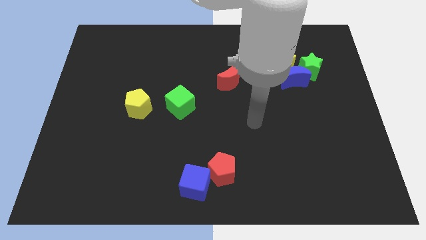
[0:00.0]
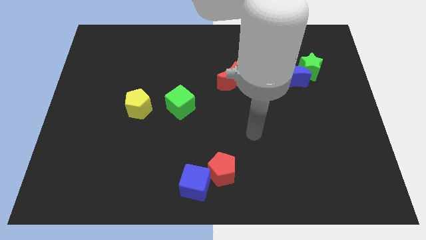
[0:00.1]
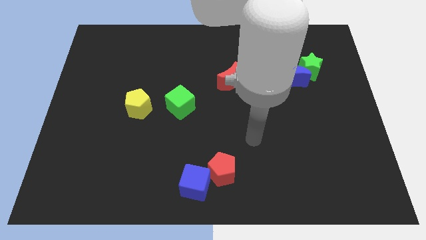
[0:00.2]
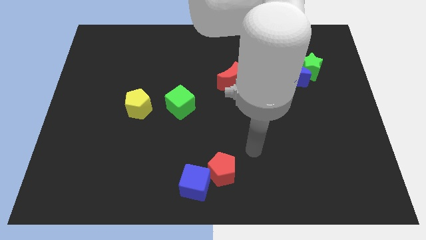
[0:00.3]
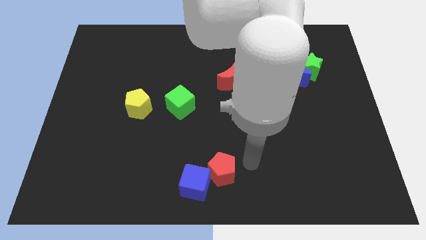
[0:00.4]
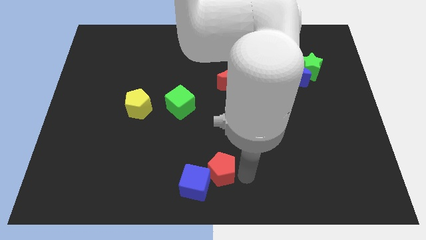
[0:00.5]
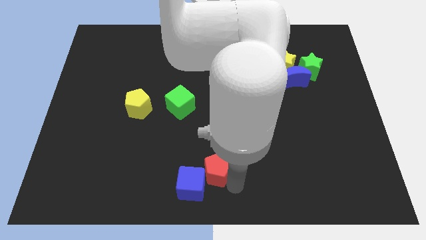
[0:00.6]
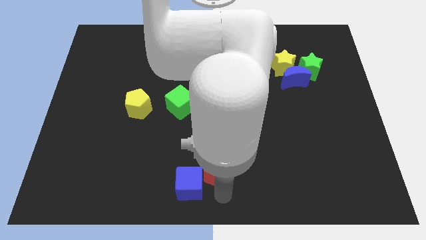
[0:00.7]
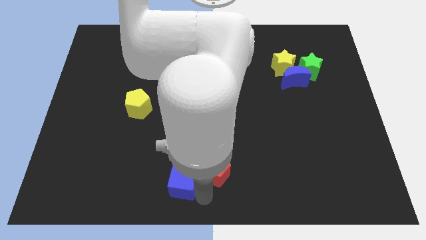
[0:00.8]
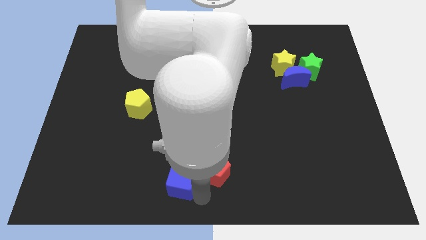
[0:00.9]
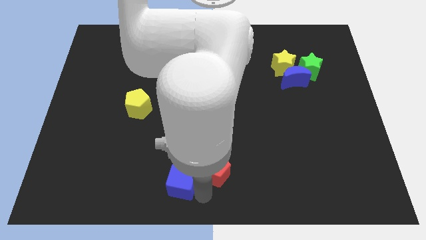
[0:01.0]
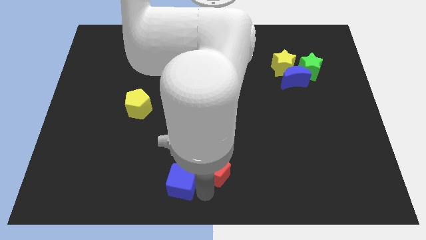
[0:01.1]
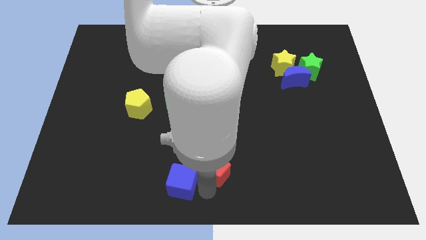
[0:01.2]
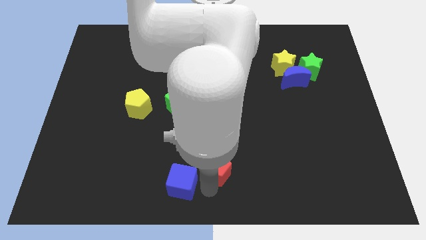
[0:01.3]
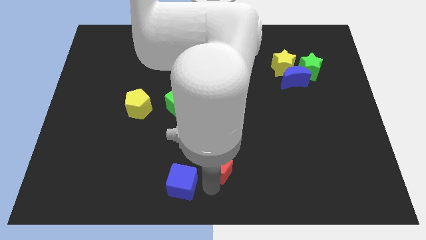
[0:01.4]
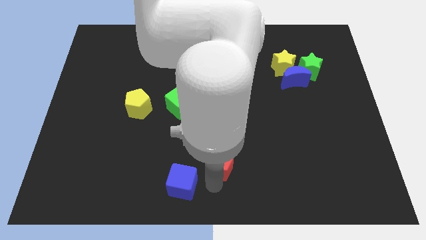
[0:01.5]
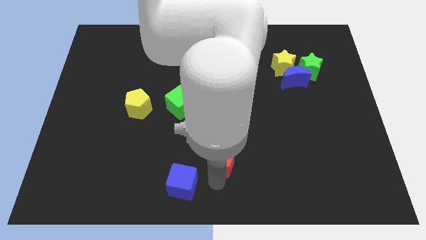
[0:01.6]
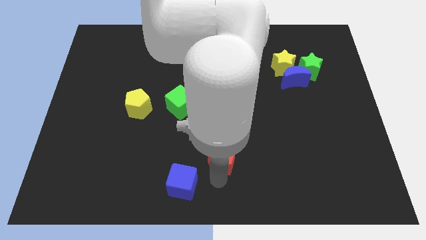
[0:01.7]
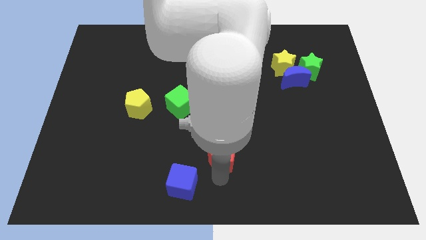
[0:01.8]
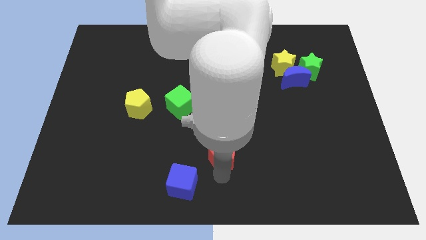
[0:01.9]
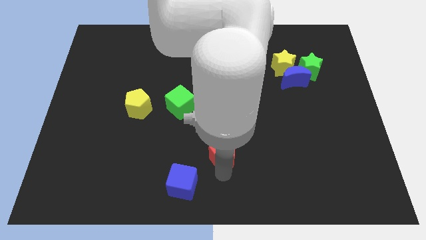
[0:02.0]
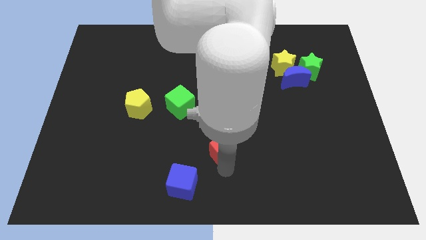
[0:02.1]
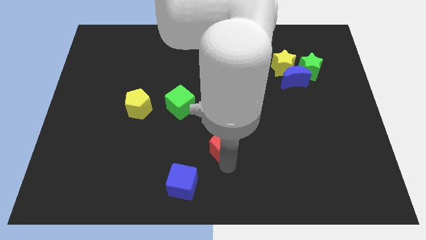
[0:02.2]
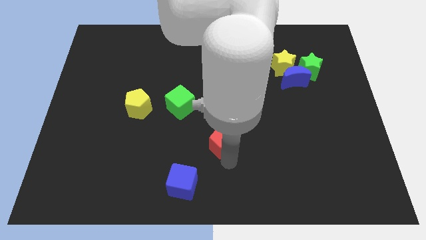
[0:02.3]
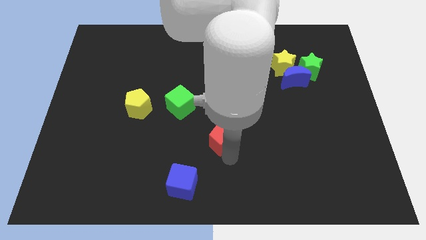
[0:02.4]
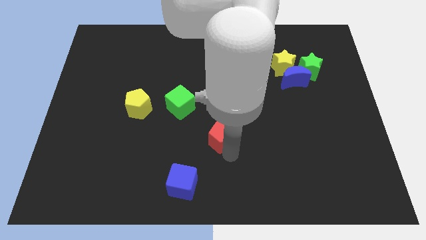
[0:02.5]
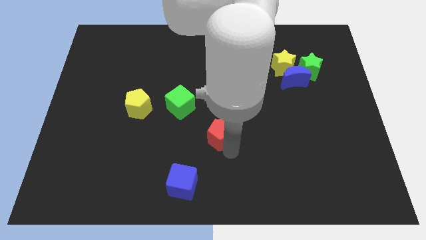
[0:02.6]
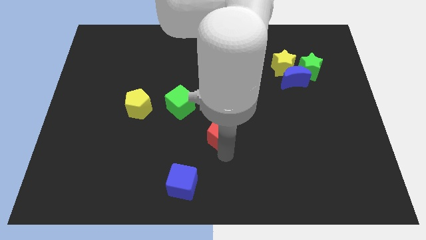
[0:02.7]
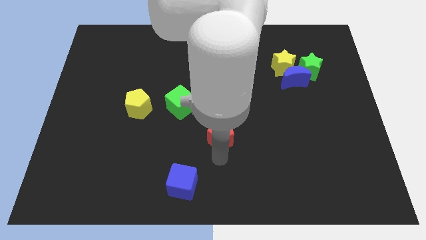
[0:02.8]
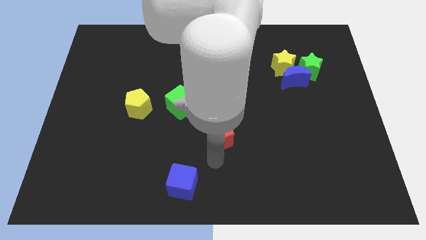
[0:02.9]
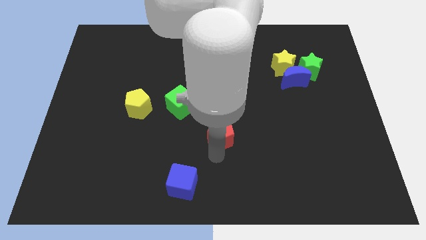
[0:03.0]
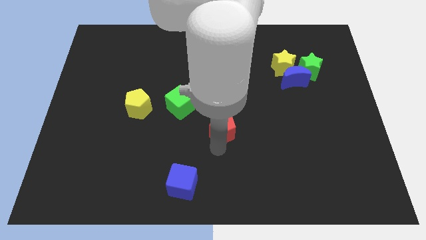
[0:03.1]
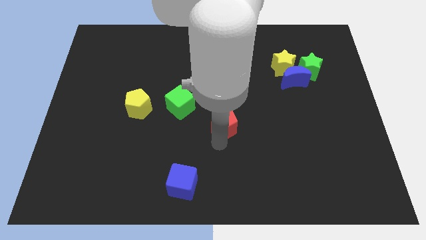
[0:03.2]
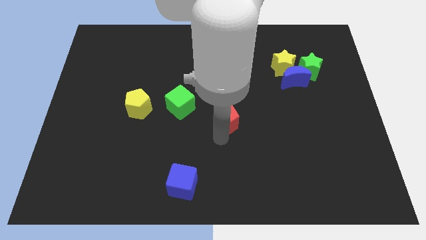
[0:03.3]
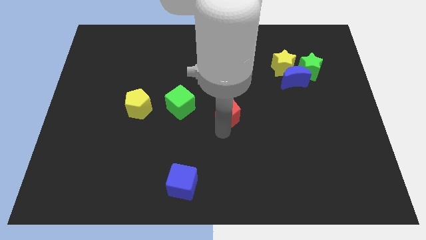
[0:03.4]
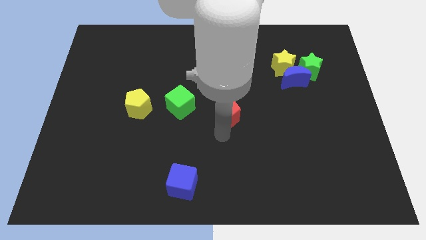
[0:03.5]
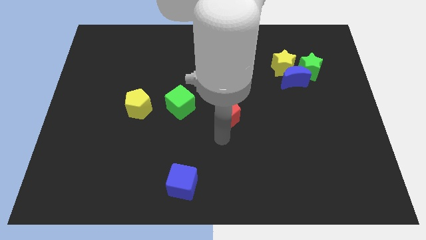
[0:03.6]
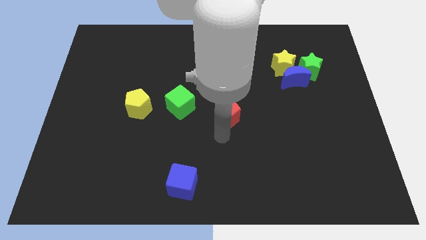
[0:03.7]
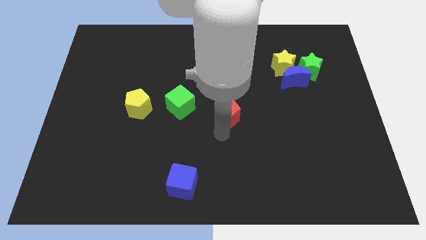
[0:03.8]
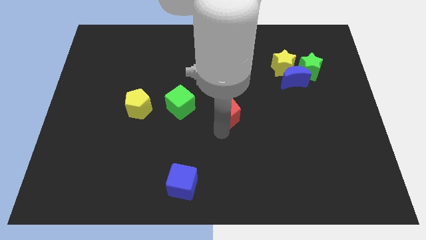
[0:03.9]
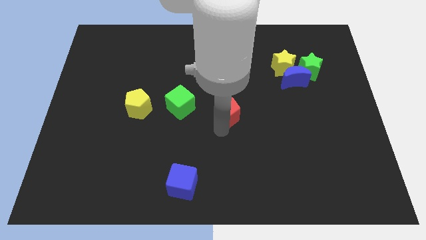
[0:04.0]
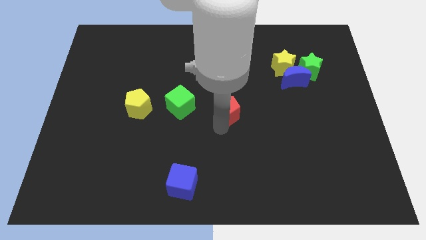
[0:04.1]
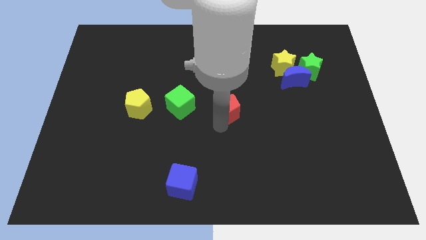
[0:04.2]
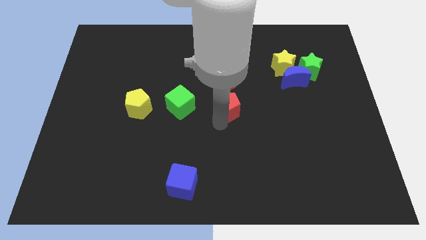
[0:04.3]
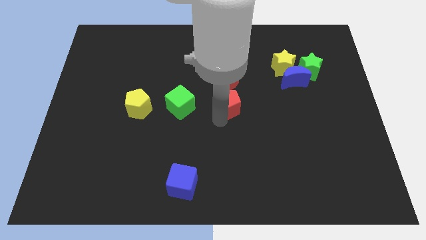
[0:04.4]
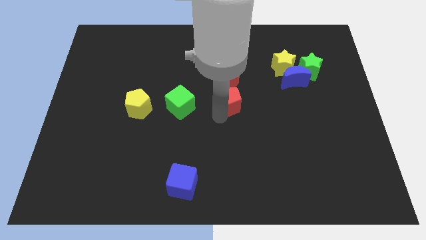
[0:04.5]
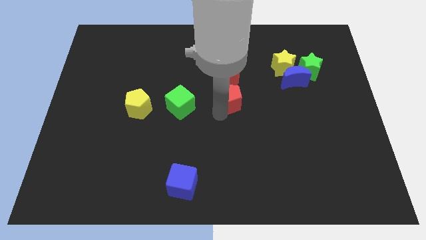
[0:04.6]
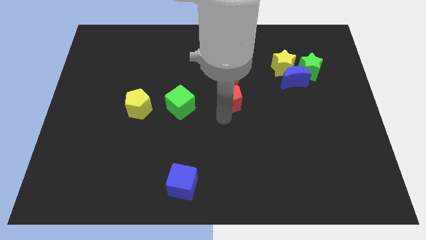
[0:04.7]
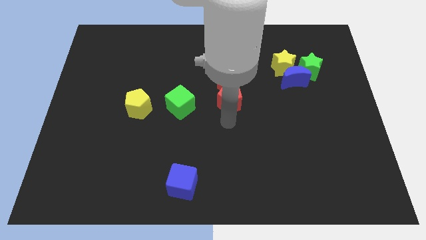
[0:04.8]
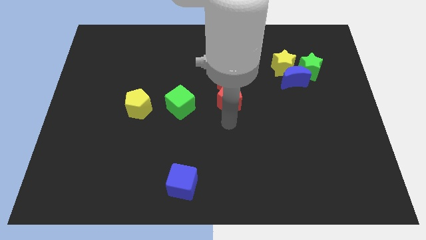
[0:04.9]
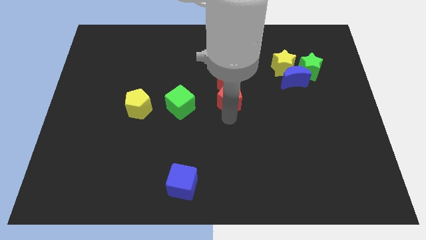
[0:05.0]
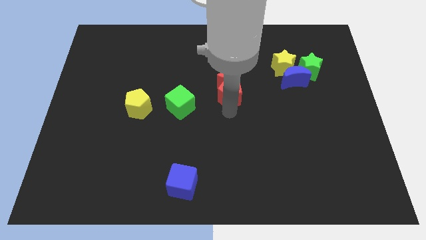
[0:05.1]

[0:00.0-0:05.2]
put the red pentagon next to the red moon

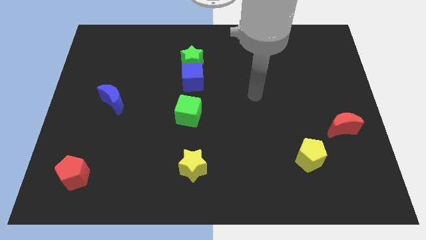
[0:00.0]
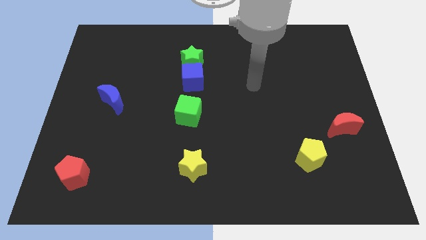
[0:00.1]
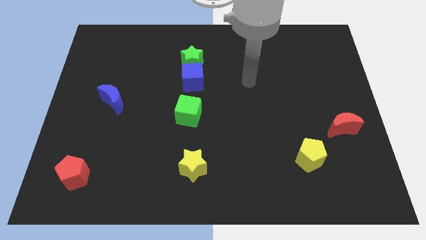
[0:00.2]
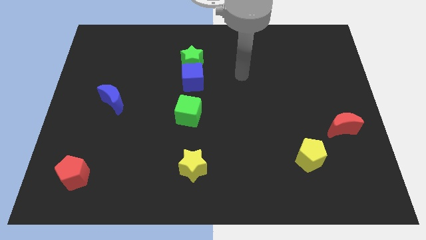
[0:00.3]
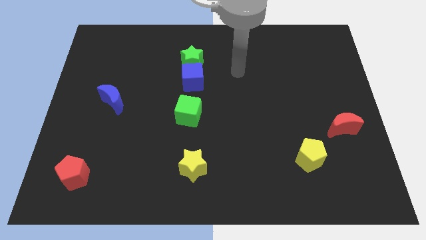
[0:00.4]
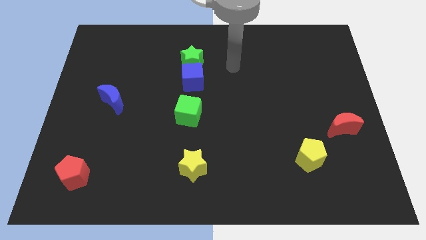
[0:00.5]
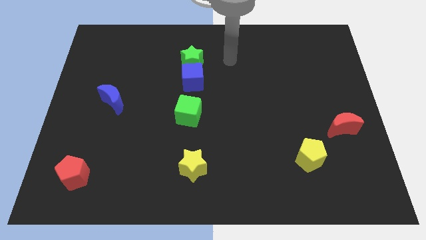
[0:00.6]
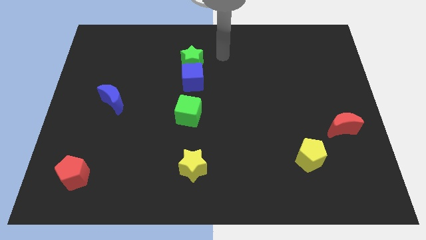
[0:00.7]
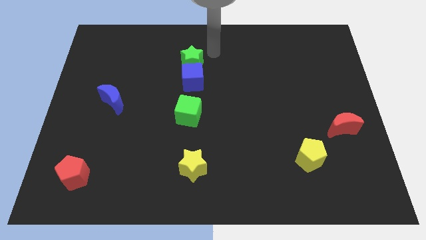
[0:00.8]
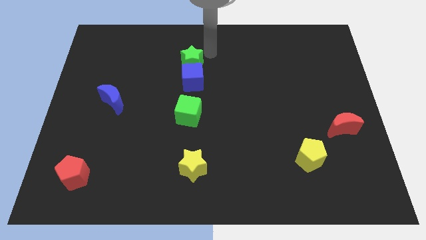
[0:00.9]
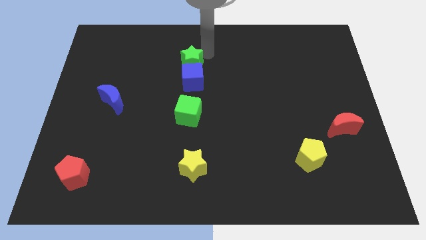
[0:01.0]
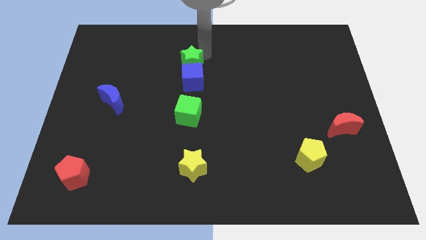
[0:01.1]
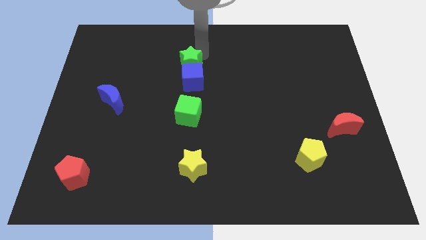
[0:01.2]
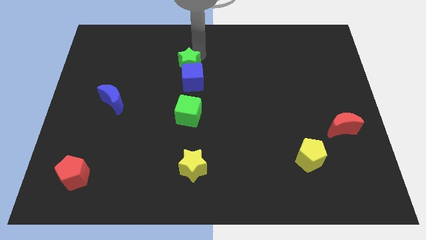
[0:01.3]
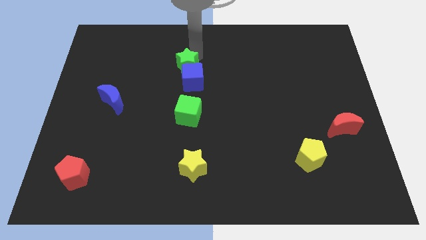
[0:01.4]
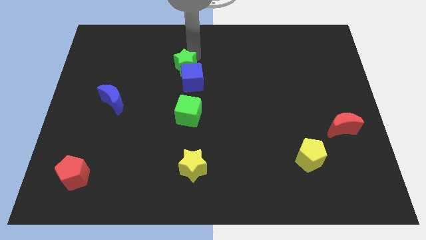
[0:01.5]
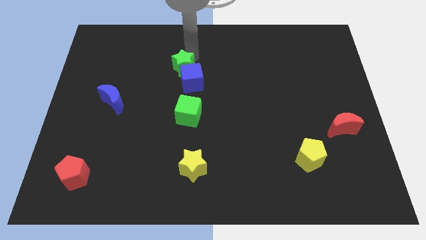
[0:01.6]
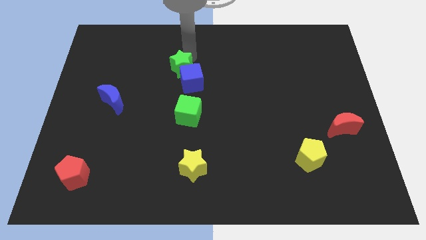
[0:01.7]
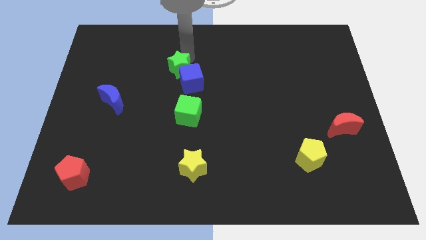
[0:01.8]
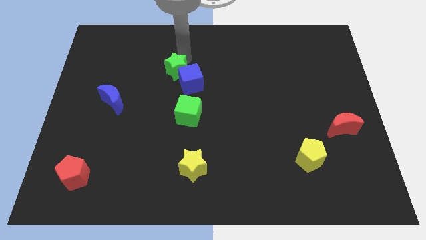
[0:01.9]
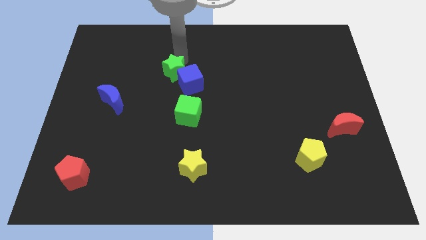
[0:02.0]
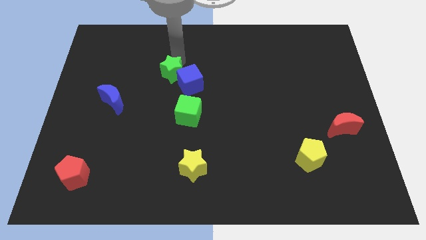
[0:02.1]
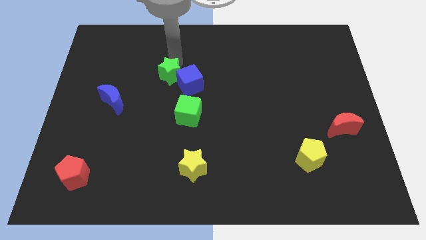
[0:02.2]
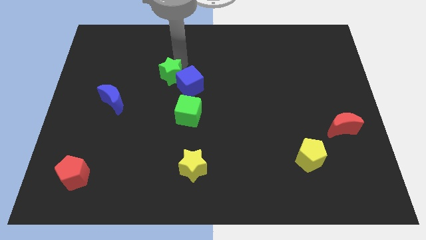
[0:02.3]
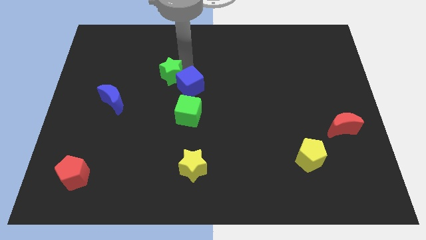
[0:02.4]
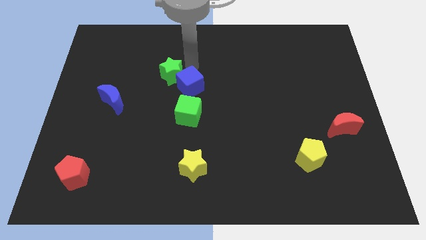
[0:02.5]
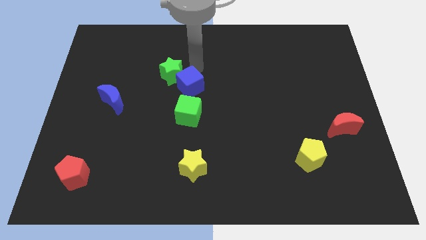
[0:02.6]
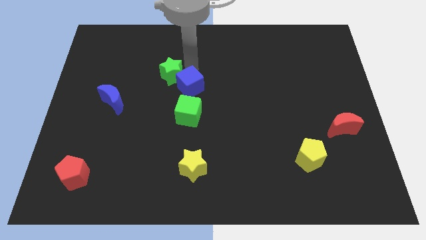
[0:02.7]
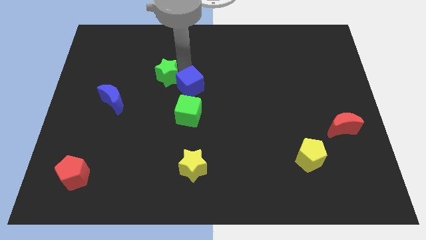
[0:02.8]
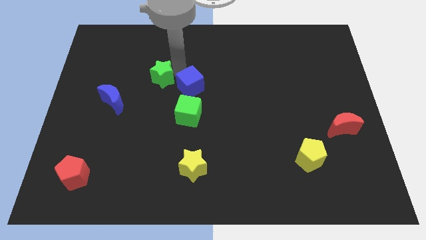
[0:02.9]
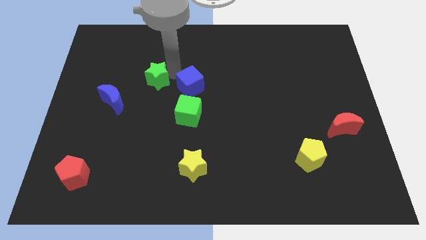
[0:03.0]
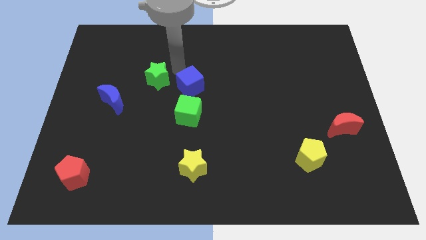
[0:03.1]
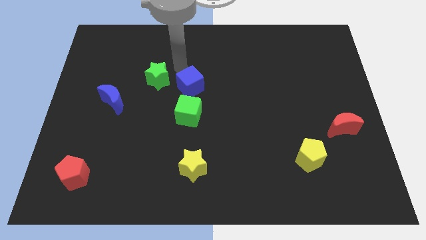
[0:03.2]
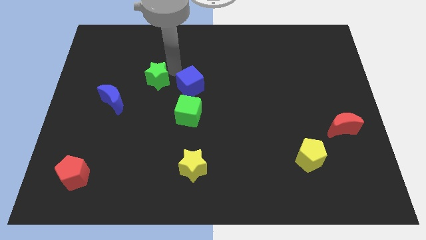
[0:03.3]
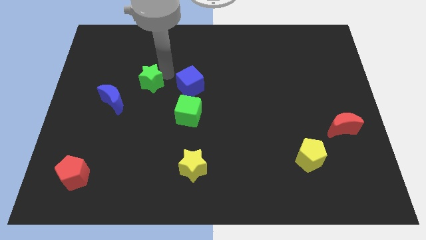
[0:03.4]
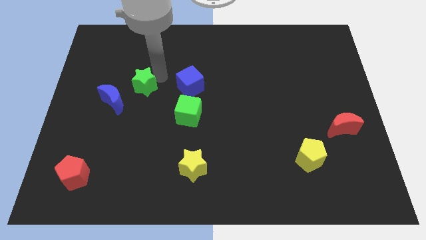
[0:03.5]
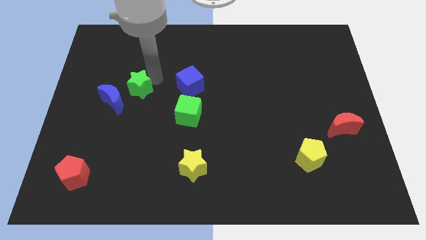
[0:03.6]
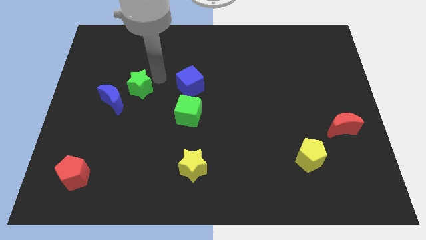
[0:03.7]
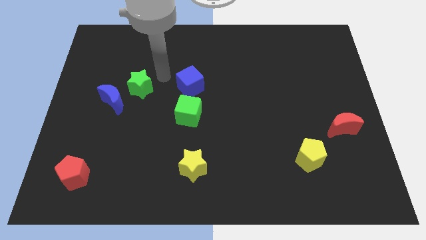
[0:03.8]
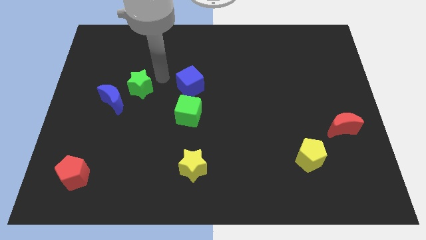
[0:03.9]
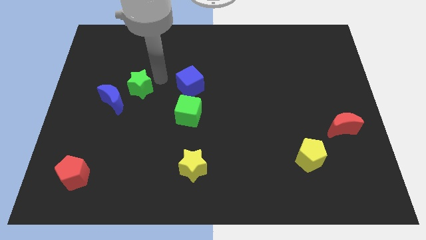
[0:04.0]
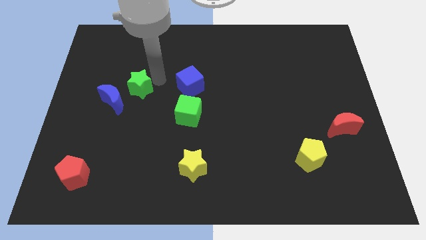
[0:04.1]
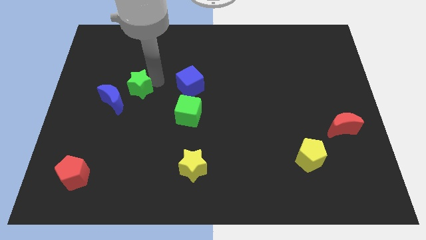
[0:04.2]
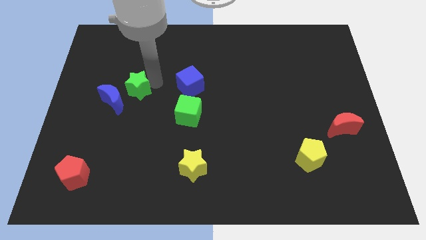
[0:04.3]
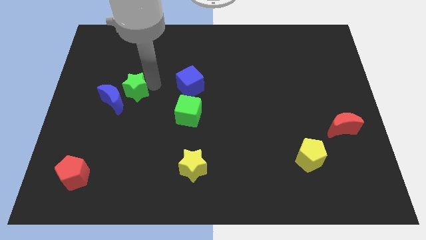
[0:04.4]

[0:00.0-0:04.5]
put the green star towards the blue moon
